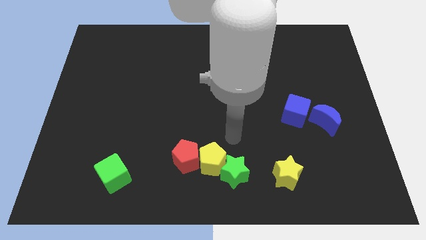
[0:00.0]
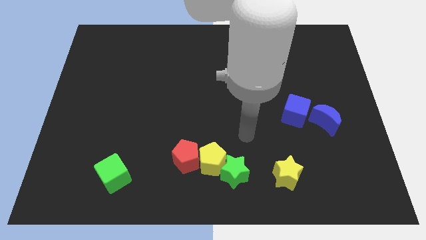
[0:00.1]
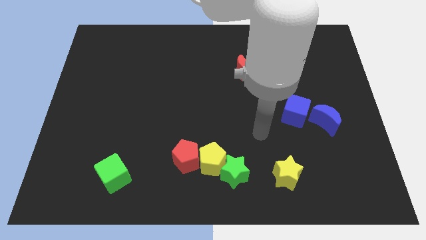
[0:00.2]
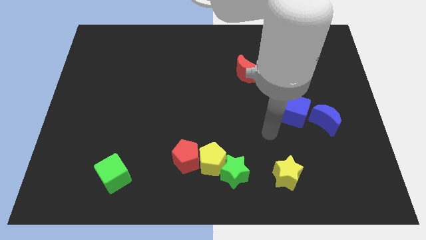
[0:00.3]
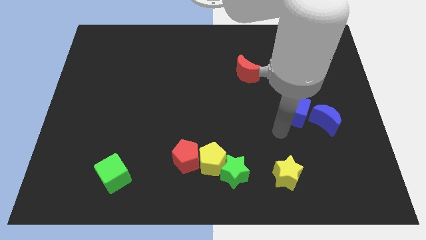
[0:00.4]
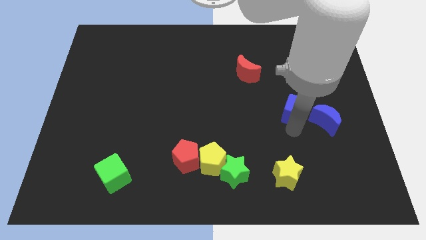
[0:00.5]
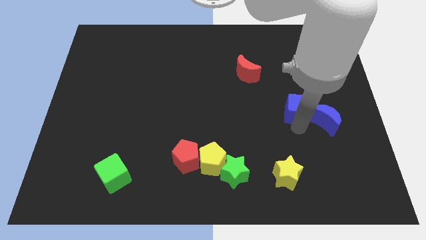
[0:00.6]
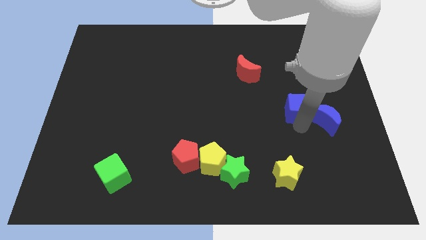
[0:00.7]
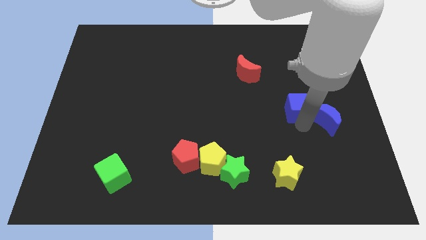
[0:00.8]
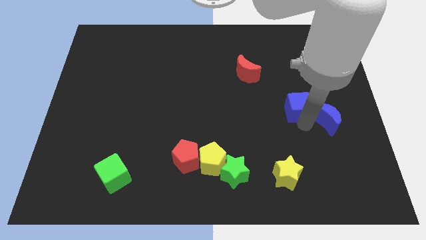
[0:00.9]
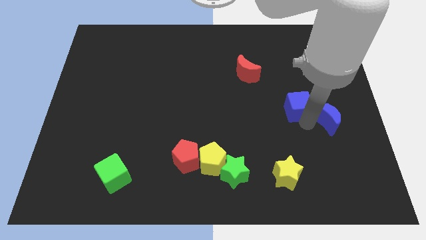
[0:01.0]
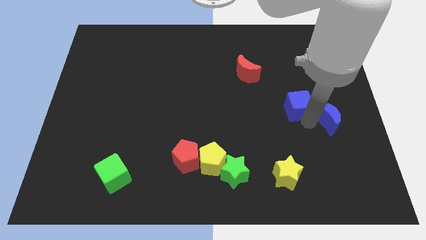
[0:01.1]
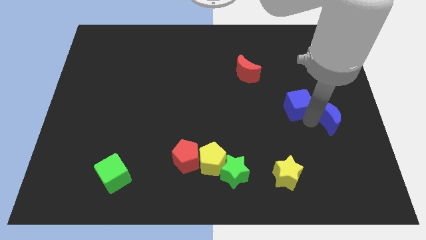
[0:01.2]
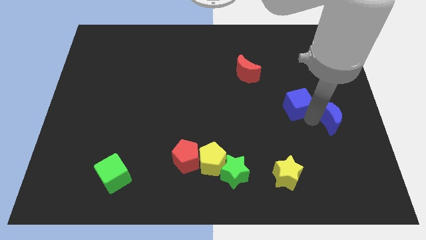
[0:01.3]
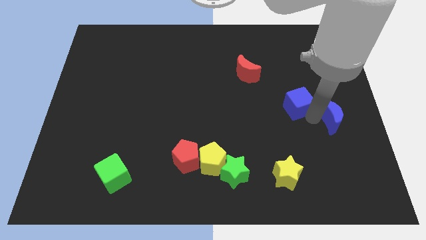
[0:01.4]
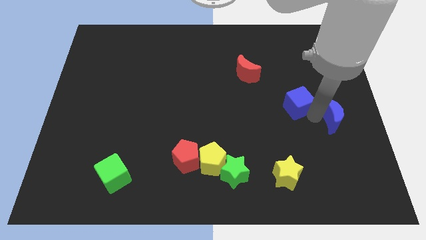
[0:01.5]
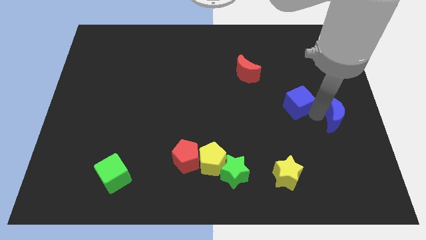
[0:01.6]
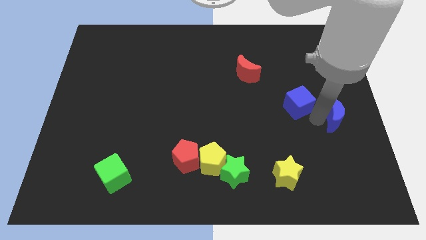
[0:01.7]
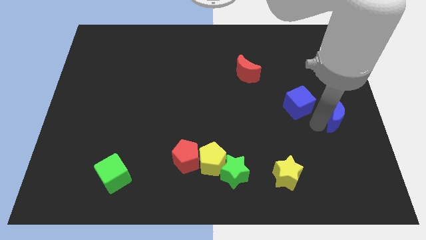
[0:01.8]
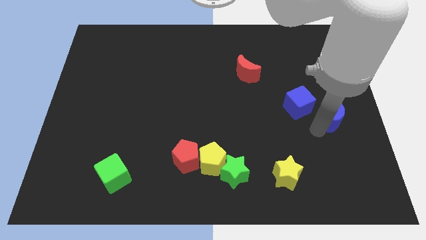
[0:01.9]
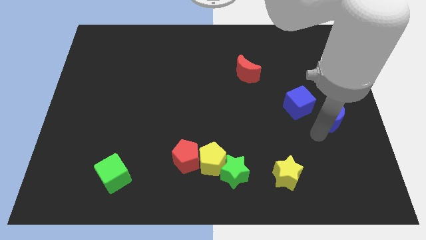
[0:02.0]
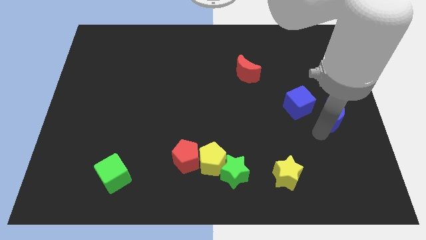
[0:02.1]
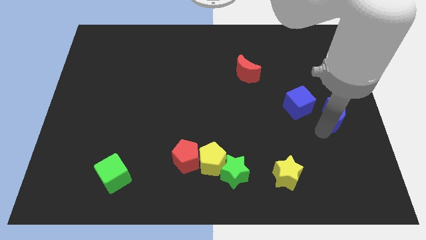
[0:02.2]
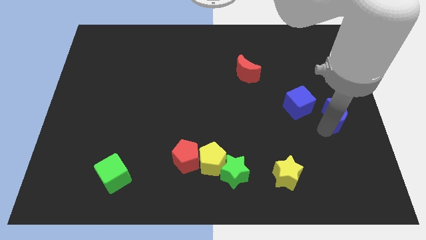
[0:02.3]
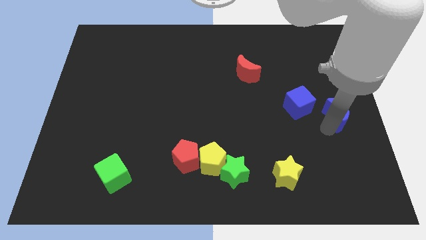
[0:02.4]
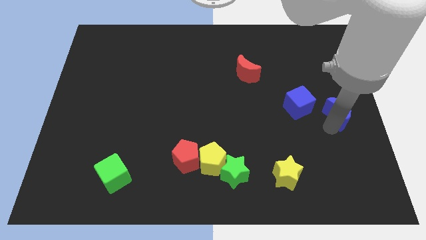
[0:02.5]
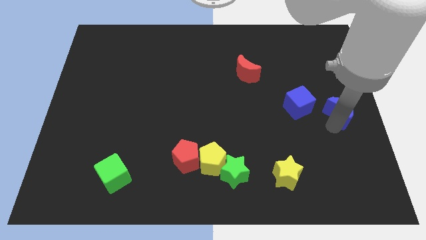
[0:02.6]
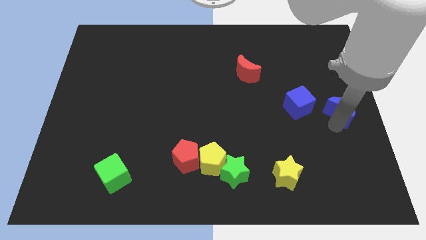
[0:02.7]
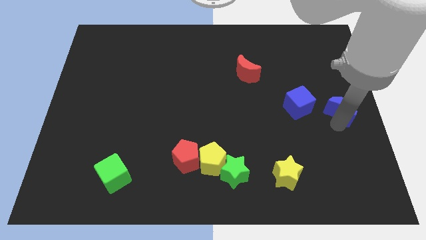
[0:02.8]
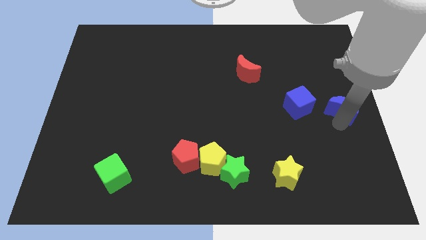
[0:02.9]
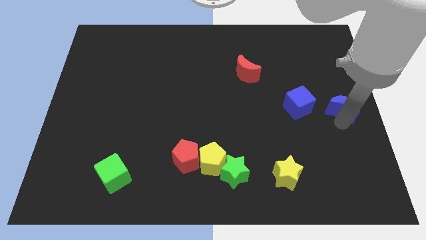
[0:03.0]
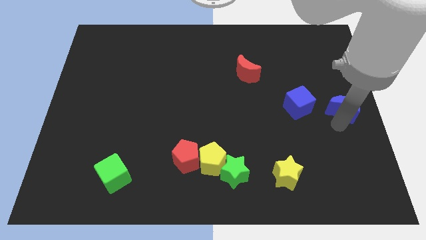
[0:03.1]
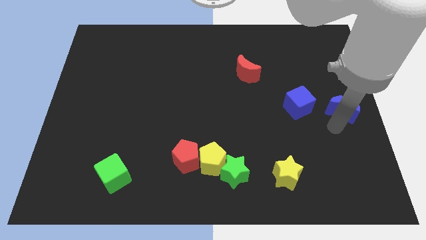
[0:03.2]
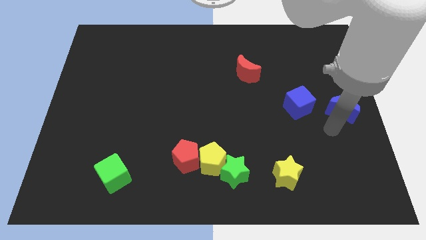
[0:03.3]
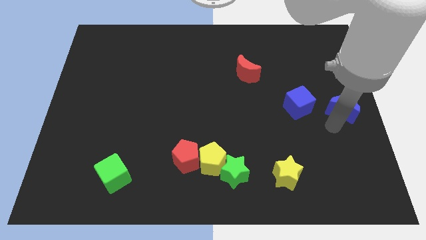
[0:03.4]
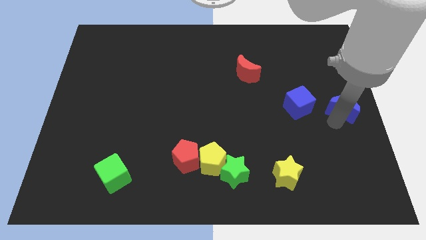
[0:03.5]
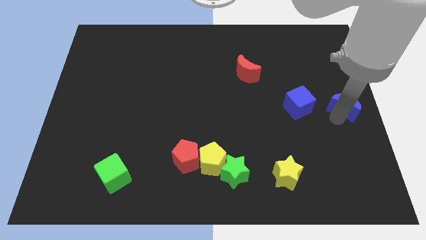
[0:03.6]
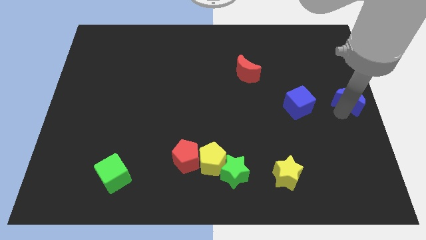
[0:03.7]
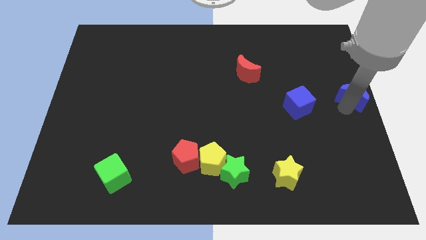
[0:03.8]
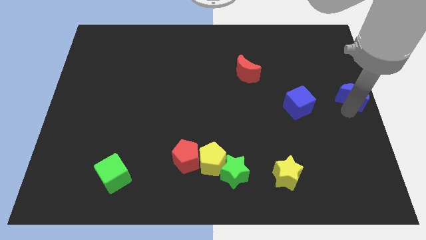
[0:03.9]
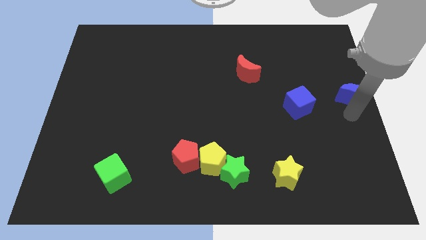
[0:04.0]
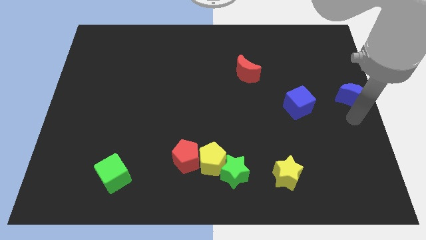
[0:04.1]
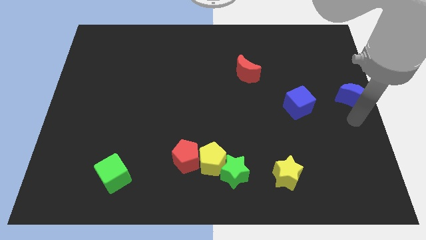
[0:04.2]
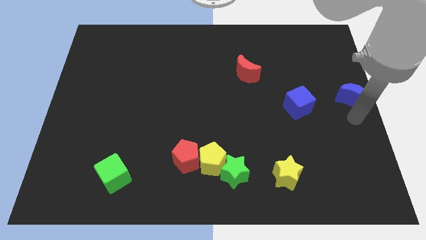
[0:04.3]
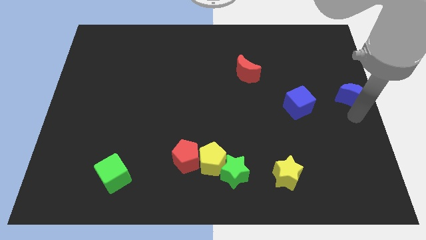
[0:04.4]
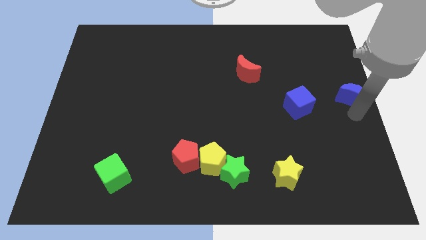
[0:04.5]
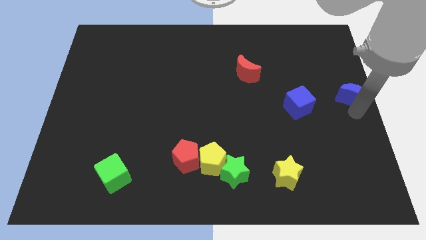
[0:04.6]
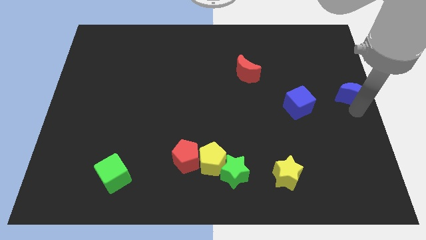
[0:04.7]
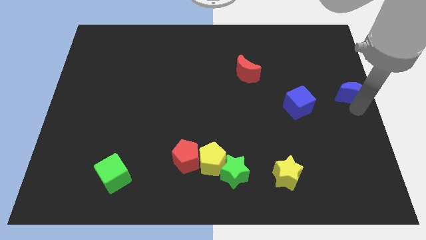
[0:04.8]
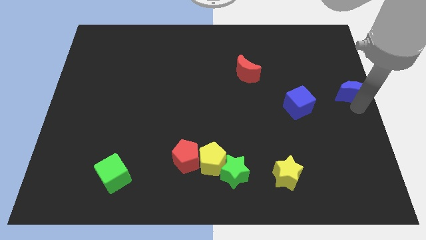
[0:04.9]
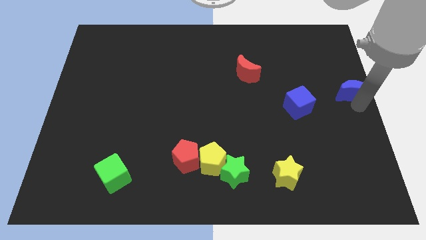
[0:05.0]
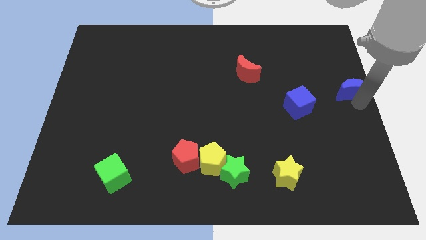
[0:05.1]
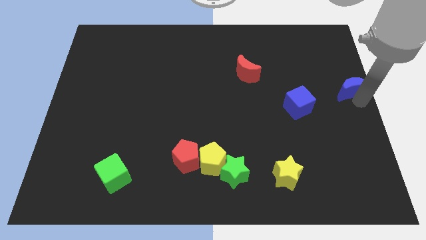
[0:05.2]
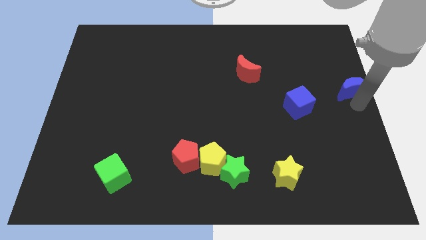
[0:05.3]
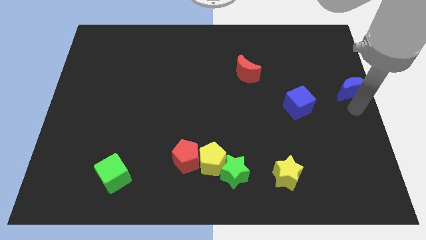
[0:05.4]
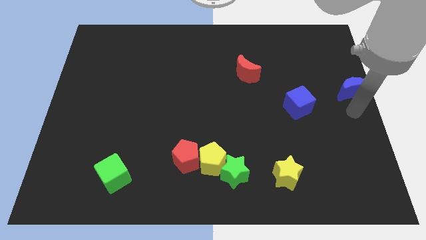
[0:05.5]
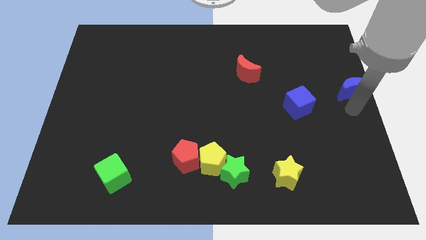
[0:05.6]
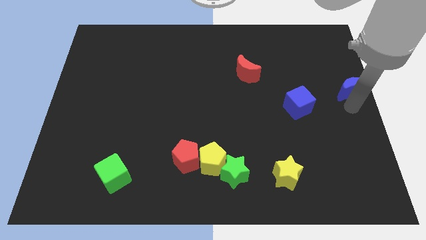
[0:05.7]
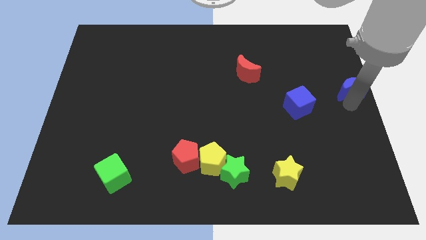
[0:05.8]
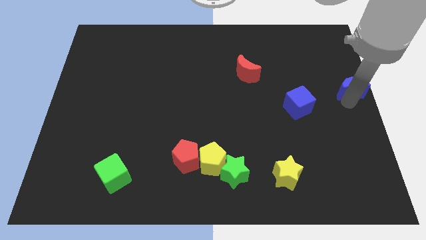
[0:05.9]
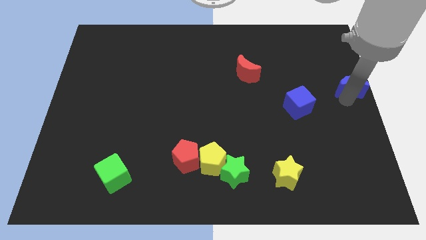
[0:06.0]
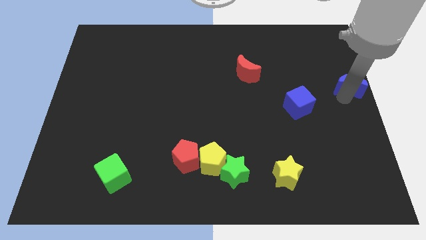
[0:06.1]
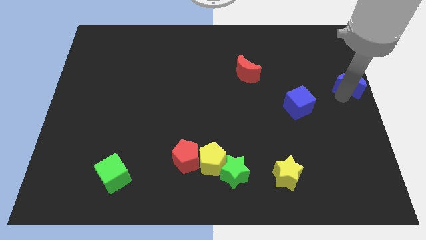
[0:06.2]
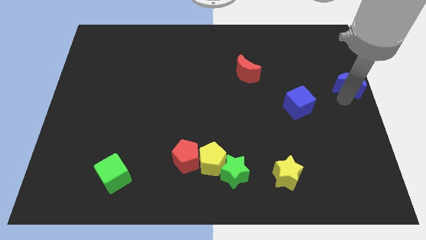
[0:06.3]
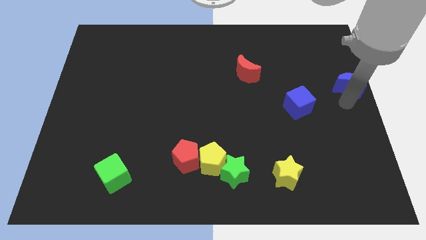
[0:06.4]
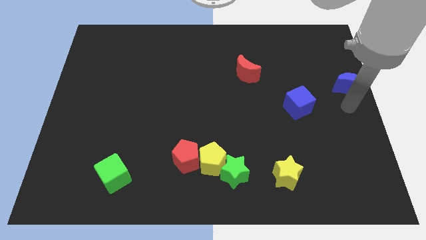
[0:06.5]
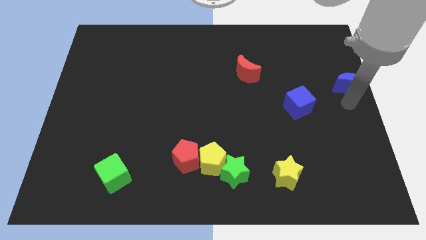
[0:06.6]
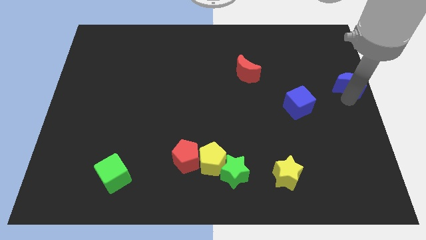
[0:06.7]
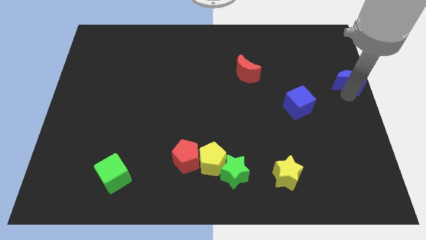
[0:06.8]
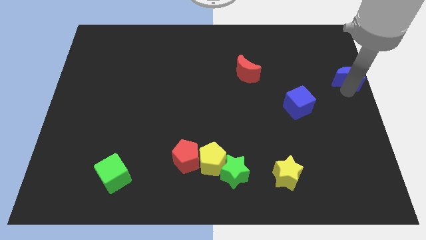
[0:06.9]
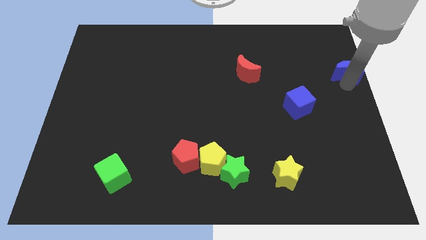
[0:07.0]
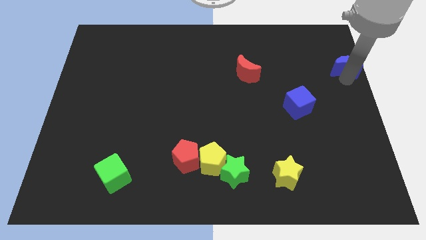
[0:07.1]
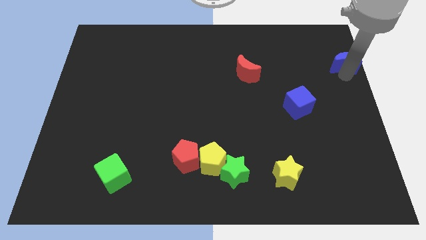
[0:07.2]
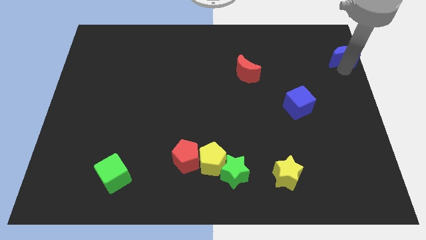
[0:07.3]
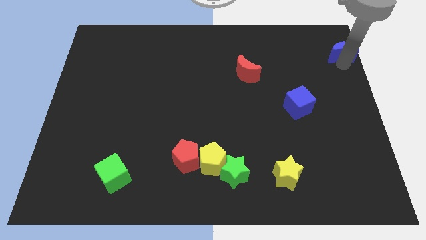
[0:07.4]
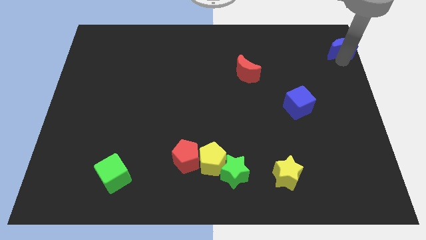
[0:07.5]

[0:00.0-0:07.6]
slide the blue moon to the top right
